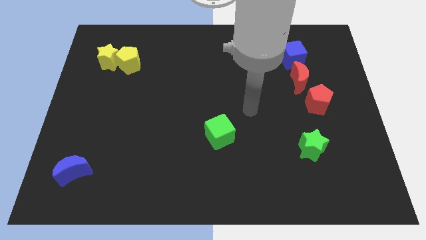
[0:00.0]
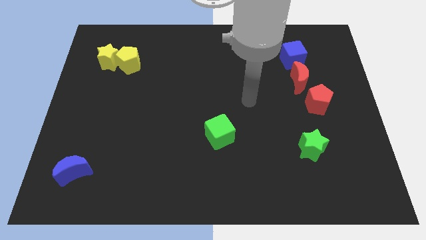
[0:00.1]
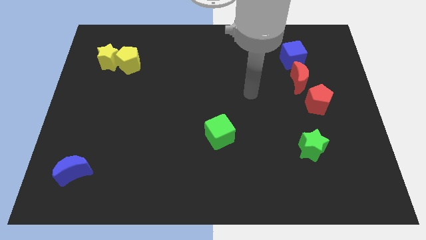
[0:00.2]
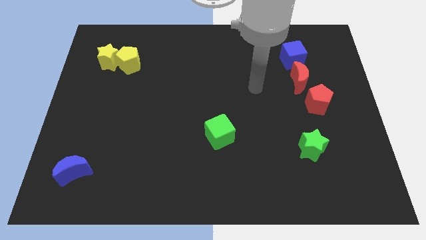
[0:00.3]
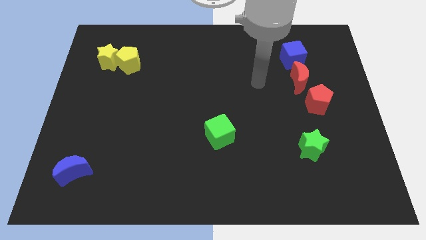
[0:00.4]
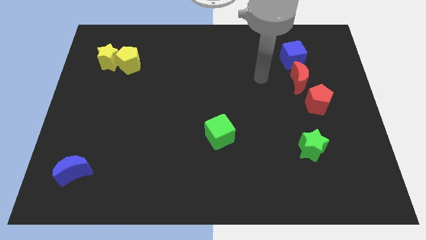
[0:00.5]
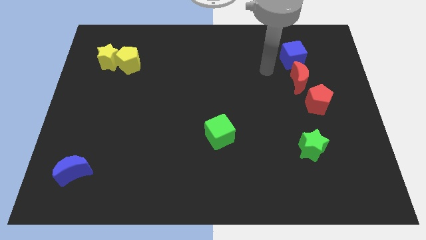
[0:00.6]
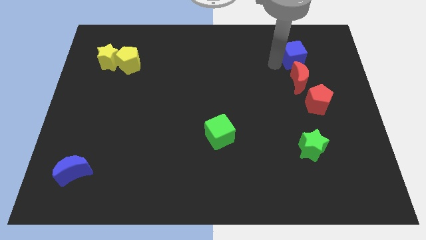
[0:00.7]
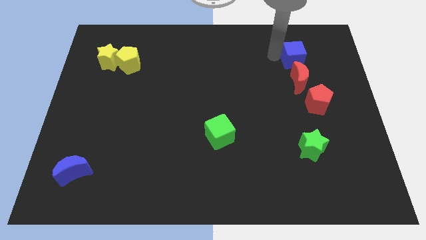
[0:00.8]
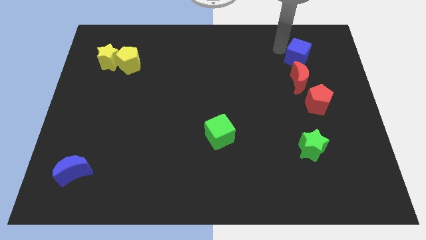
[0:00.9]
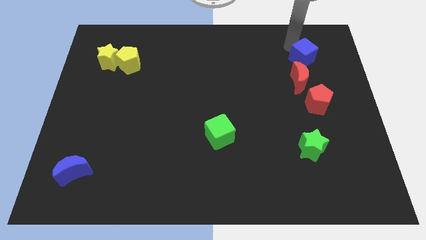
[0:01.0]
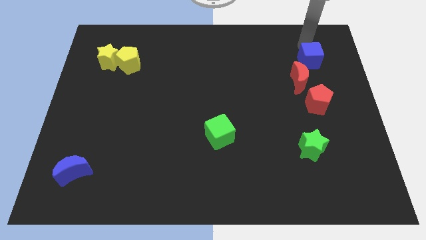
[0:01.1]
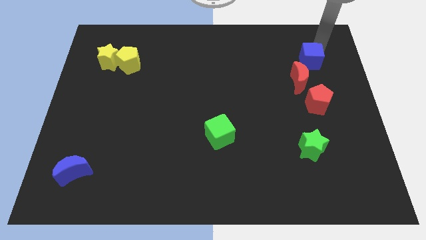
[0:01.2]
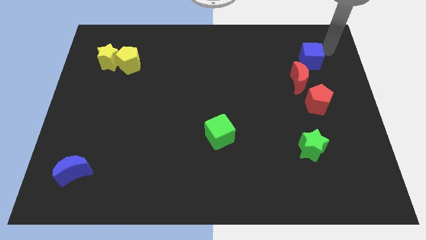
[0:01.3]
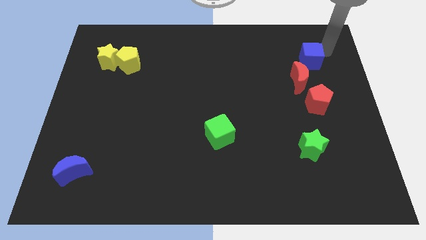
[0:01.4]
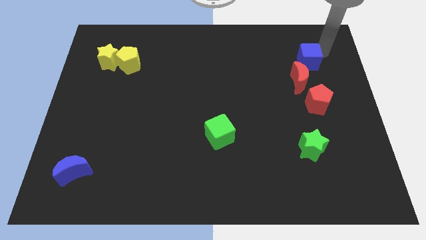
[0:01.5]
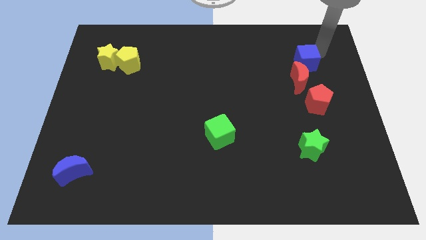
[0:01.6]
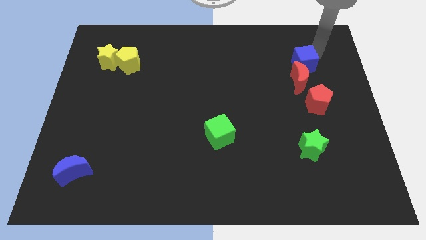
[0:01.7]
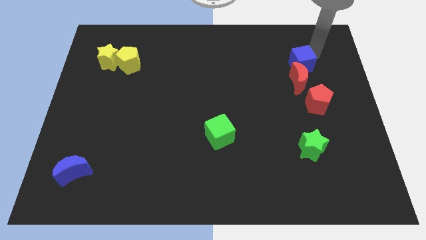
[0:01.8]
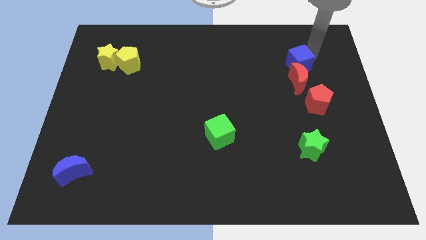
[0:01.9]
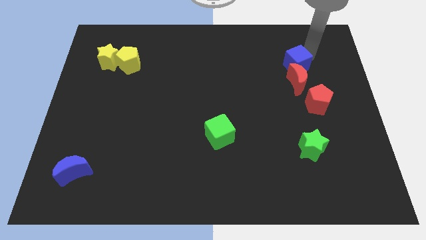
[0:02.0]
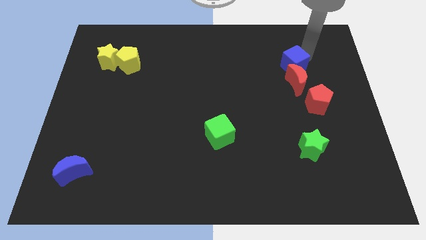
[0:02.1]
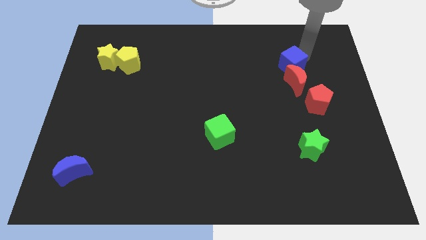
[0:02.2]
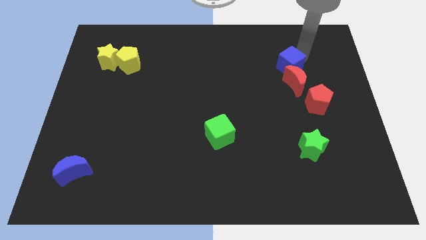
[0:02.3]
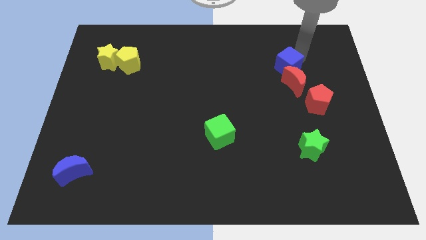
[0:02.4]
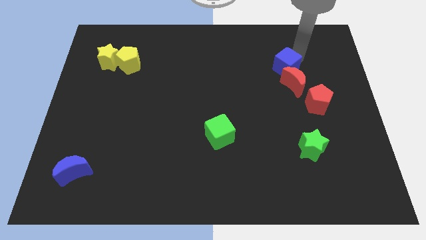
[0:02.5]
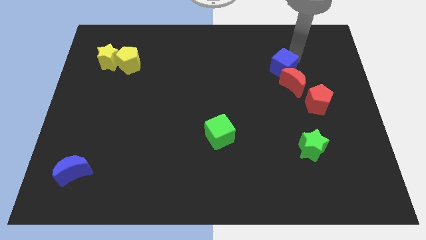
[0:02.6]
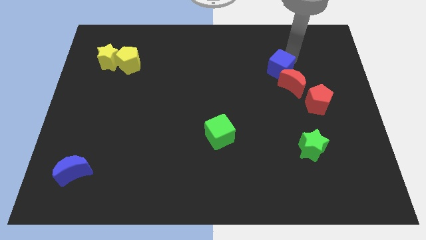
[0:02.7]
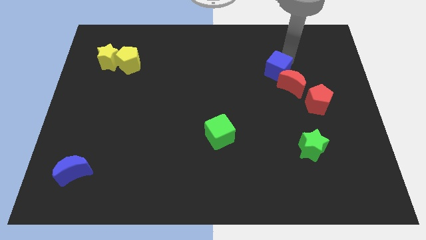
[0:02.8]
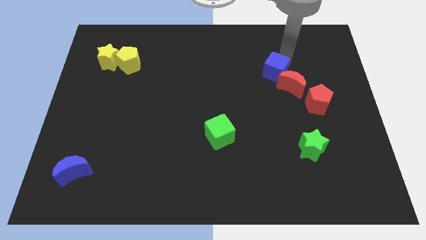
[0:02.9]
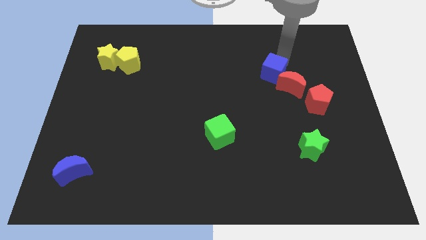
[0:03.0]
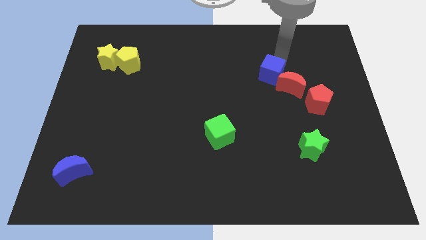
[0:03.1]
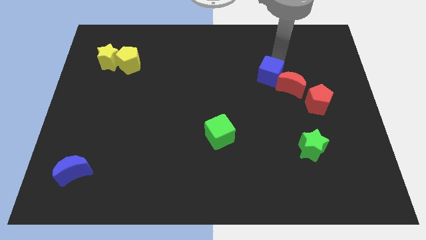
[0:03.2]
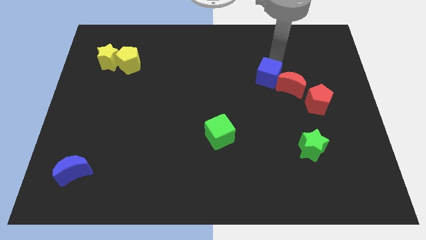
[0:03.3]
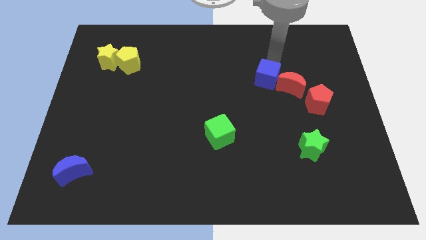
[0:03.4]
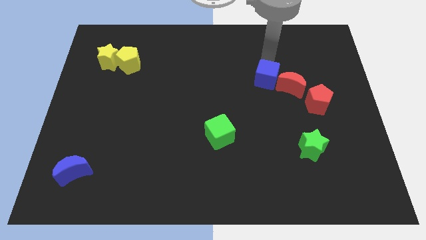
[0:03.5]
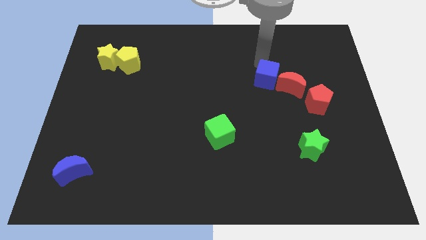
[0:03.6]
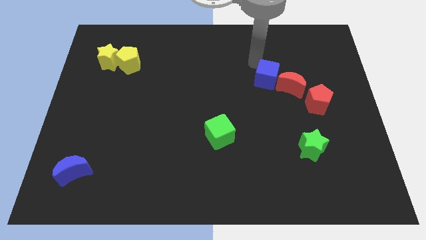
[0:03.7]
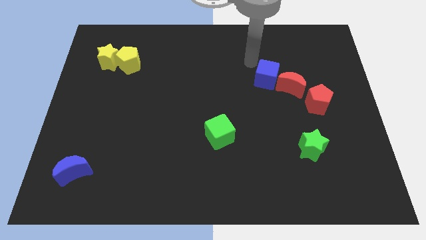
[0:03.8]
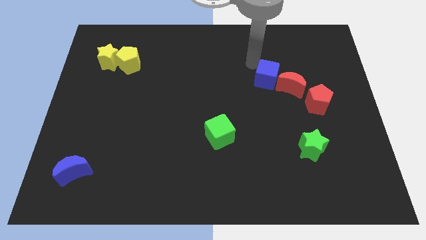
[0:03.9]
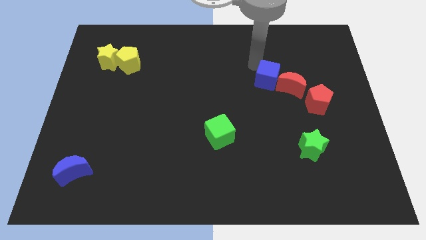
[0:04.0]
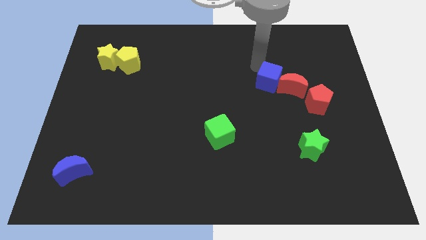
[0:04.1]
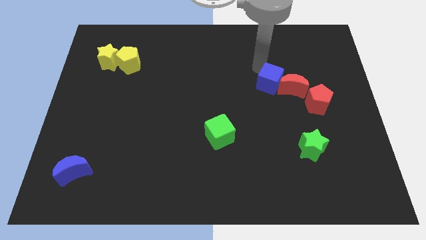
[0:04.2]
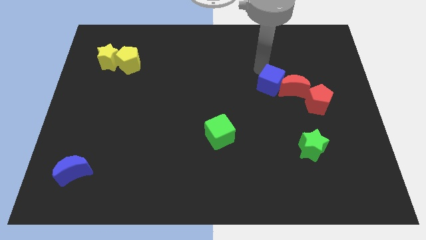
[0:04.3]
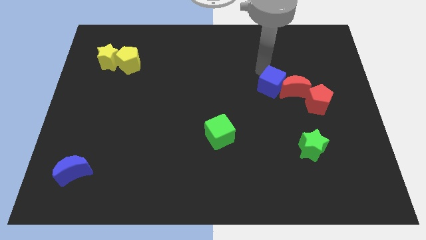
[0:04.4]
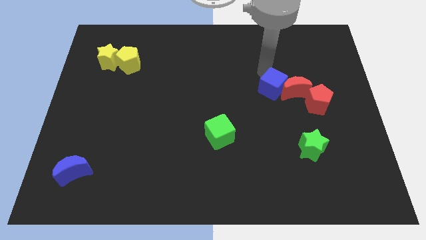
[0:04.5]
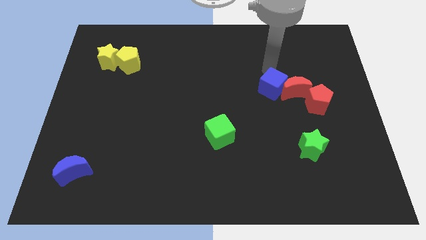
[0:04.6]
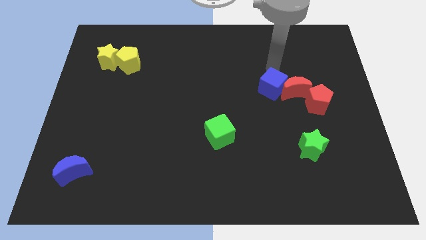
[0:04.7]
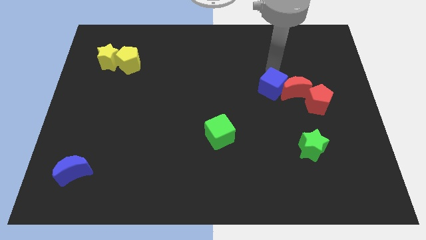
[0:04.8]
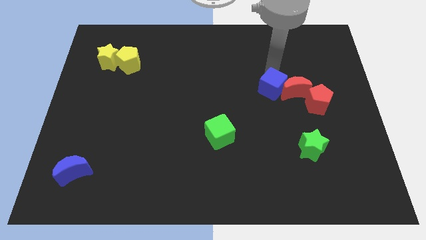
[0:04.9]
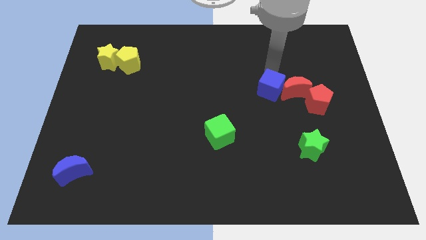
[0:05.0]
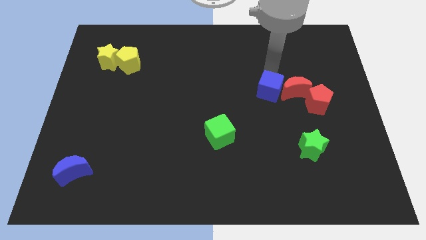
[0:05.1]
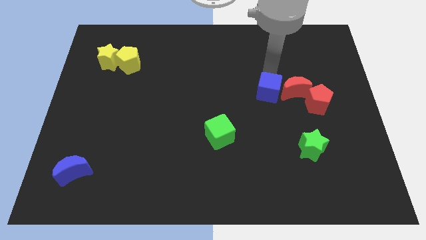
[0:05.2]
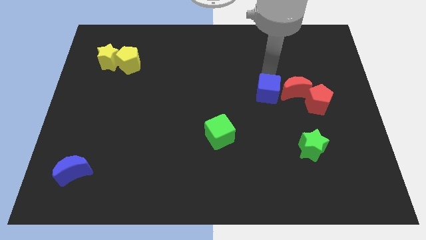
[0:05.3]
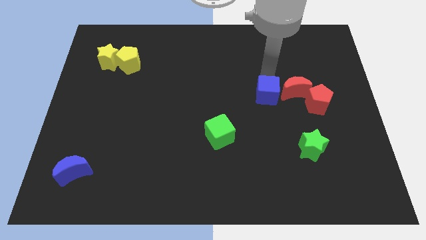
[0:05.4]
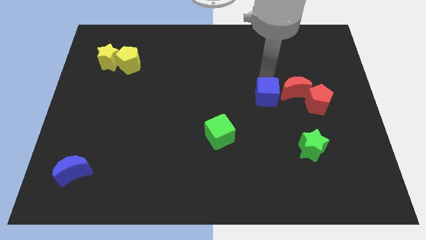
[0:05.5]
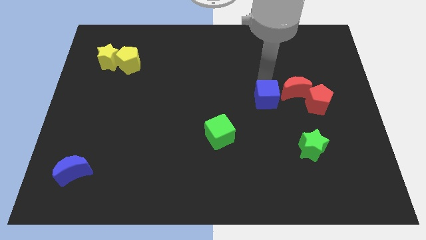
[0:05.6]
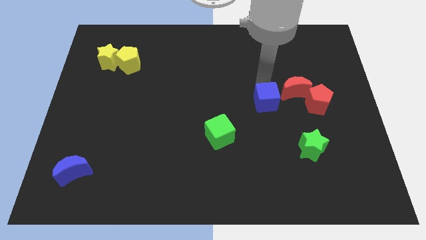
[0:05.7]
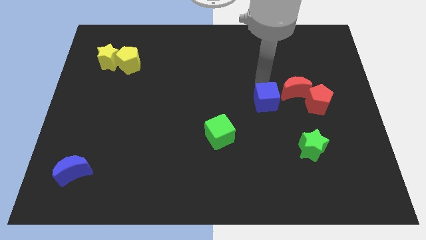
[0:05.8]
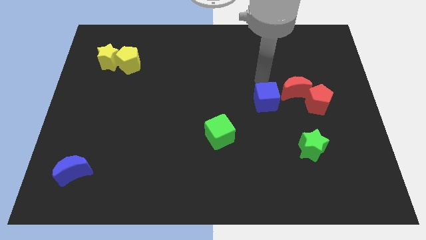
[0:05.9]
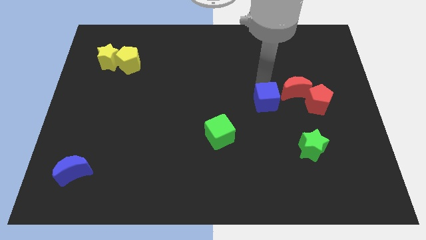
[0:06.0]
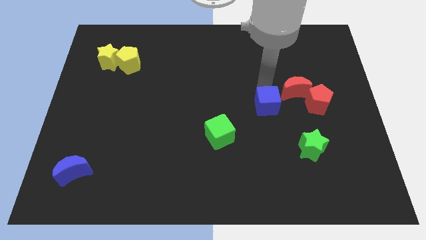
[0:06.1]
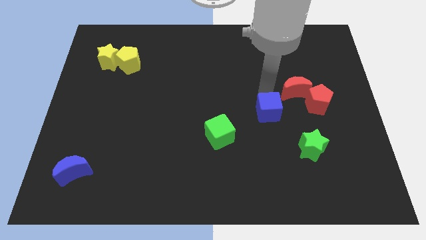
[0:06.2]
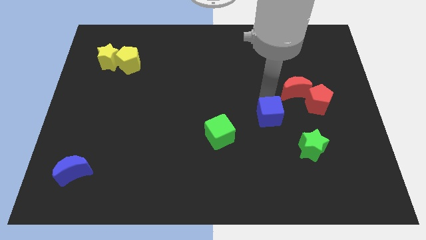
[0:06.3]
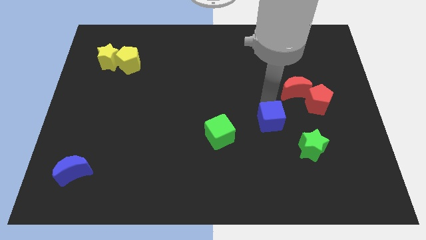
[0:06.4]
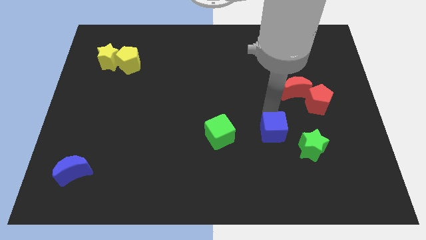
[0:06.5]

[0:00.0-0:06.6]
push the blue cube to the left side of the green star

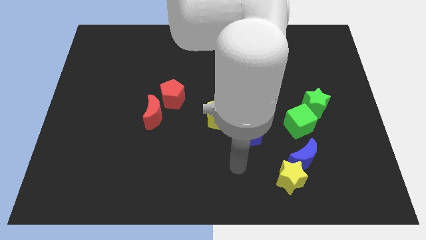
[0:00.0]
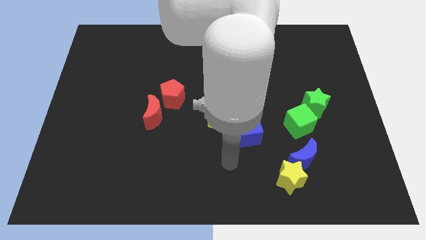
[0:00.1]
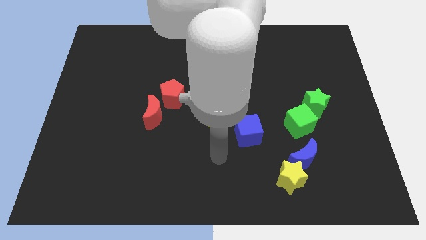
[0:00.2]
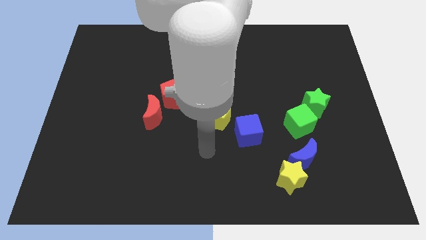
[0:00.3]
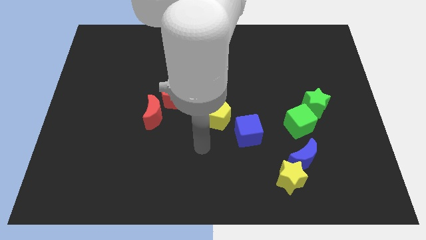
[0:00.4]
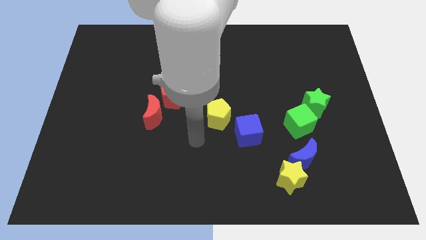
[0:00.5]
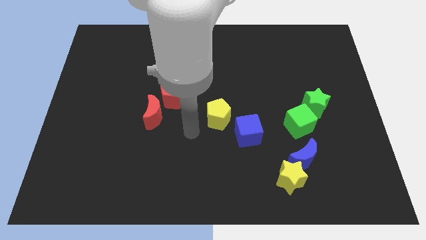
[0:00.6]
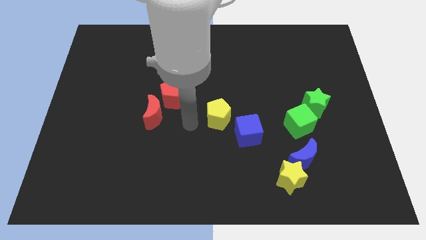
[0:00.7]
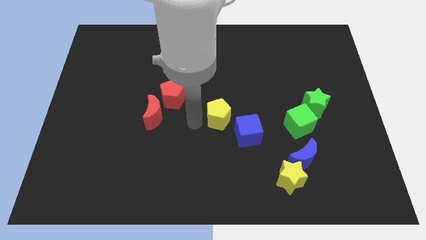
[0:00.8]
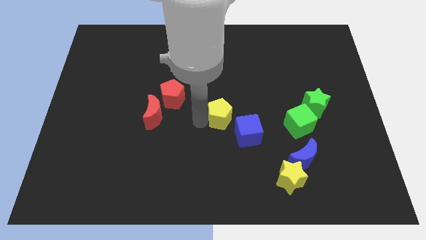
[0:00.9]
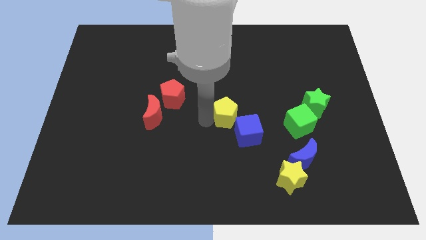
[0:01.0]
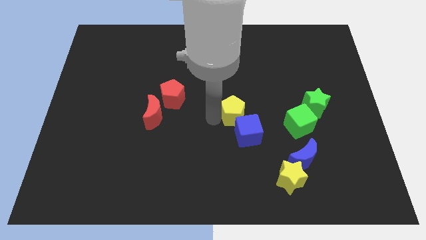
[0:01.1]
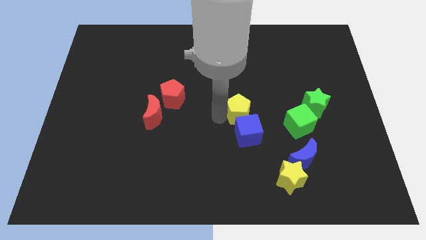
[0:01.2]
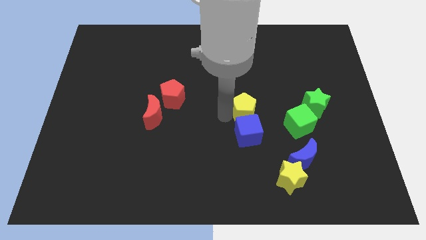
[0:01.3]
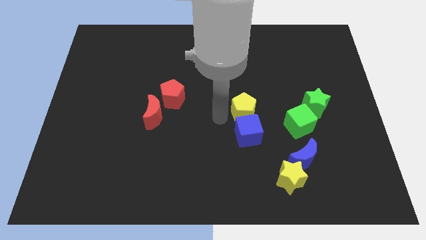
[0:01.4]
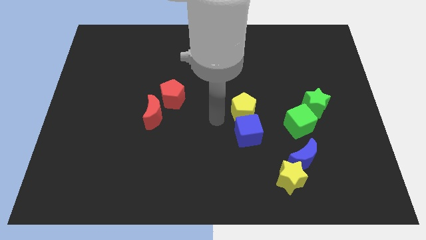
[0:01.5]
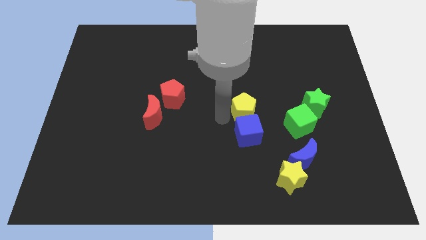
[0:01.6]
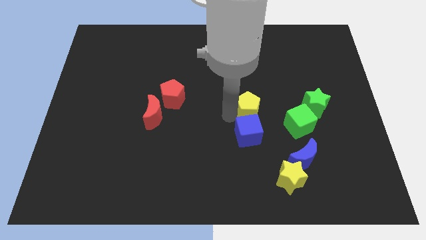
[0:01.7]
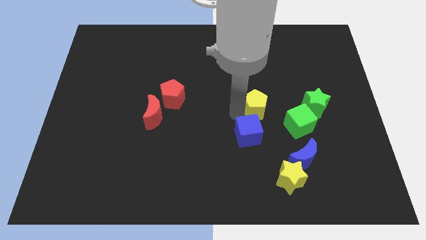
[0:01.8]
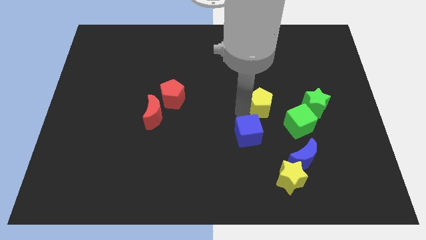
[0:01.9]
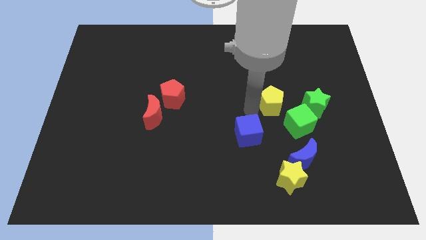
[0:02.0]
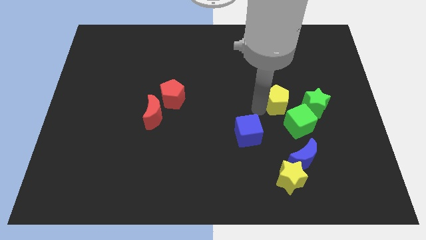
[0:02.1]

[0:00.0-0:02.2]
put the yellow pentagon to the top of the green cube
